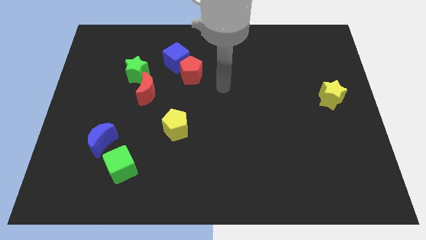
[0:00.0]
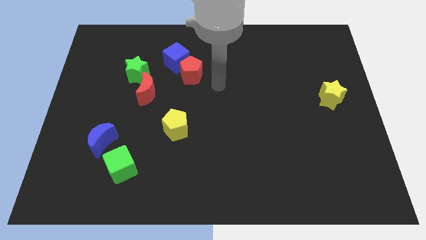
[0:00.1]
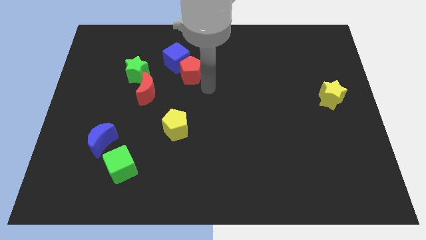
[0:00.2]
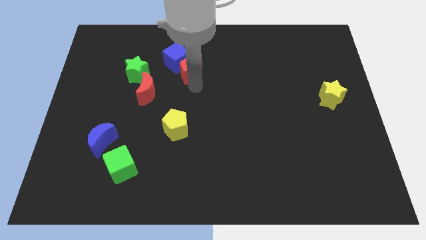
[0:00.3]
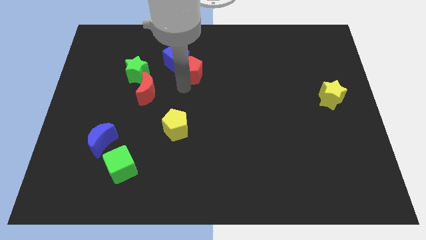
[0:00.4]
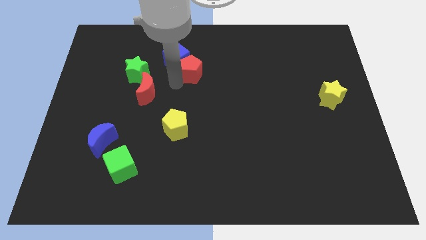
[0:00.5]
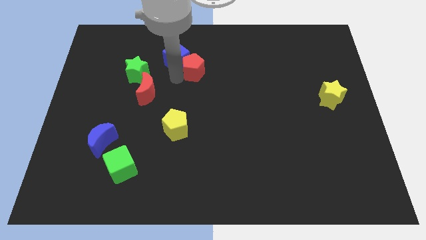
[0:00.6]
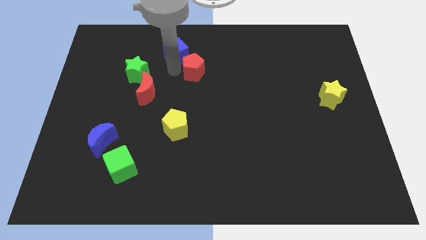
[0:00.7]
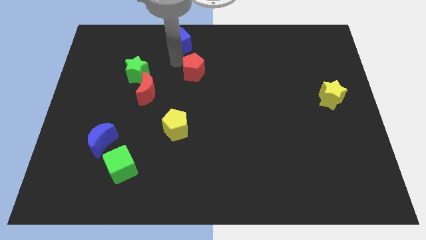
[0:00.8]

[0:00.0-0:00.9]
pull the red pentagon apart from the blue cube

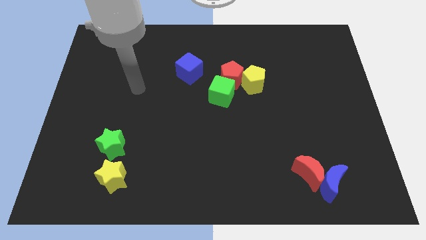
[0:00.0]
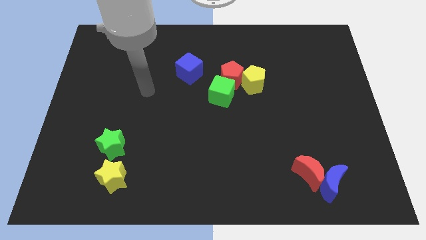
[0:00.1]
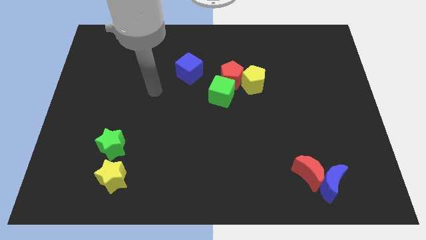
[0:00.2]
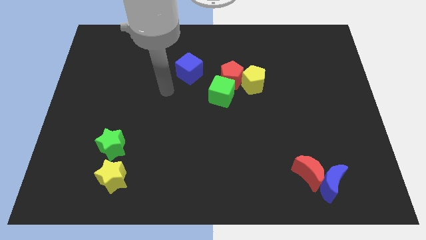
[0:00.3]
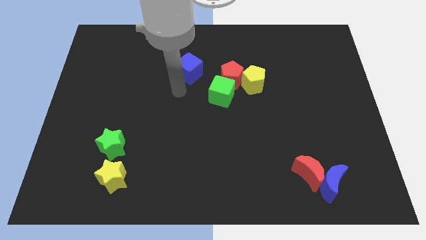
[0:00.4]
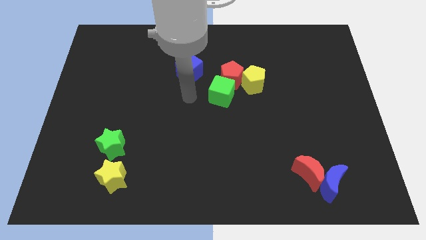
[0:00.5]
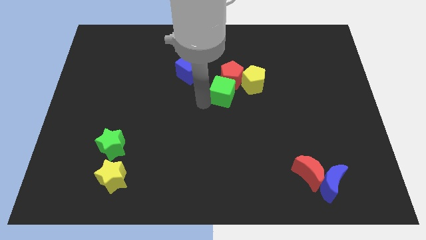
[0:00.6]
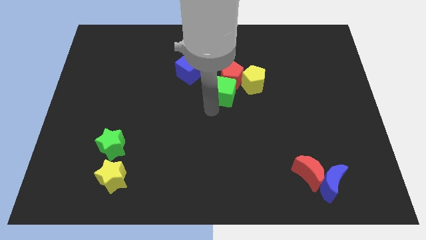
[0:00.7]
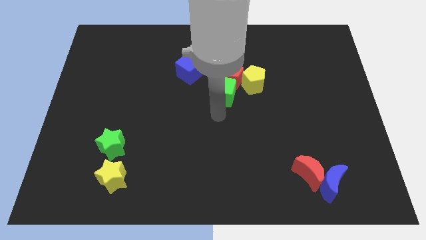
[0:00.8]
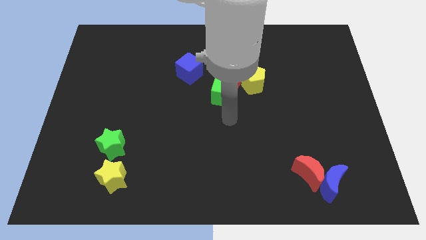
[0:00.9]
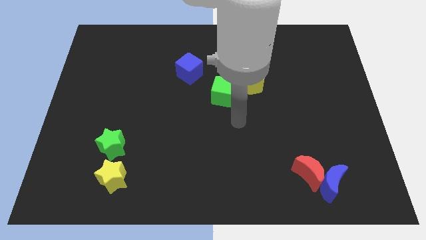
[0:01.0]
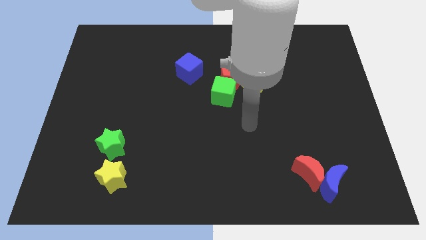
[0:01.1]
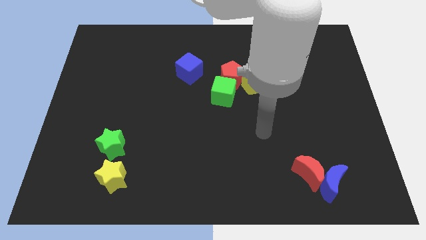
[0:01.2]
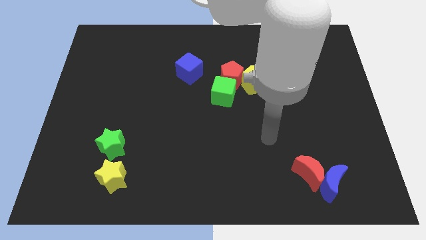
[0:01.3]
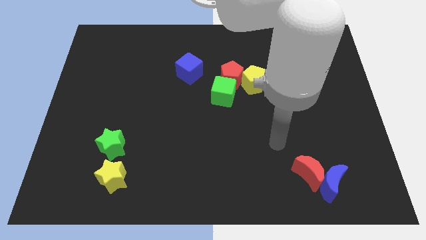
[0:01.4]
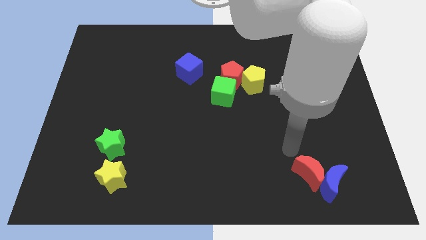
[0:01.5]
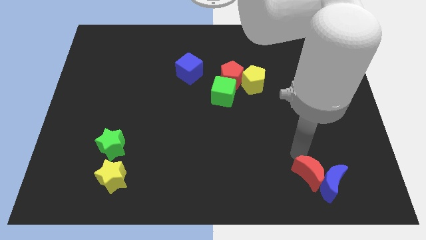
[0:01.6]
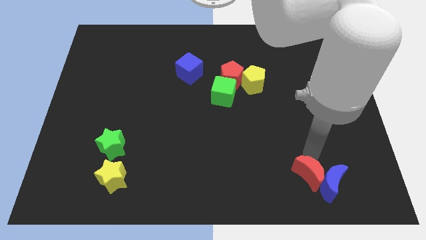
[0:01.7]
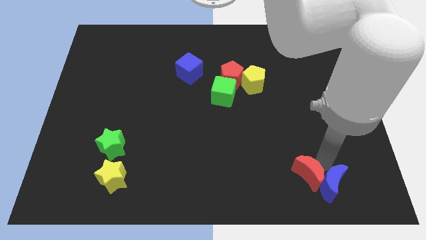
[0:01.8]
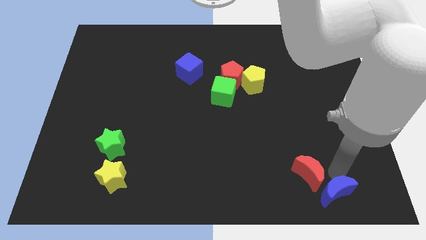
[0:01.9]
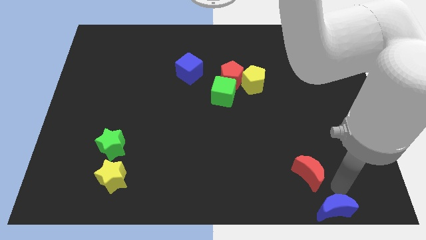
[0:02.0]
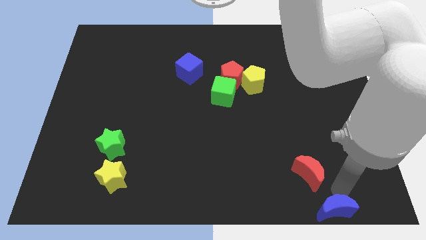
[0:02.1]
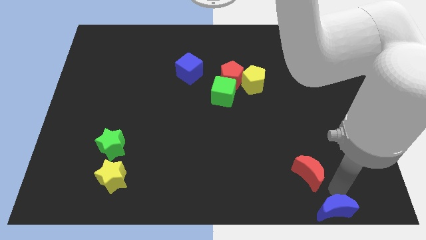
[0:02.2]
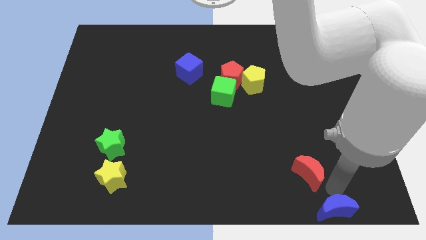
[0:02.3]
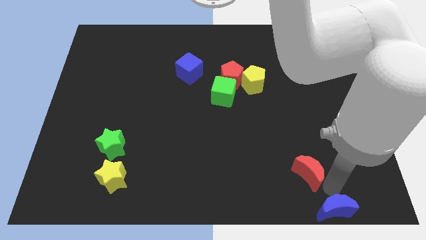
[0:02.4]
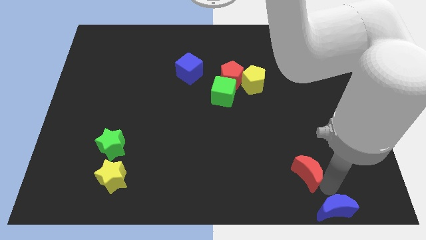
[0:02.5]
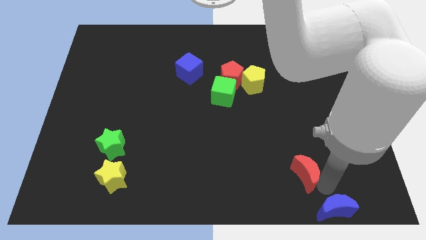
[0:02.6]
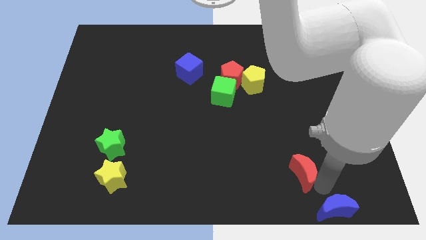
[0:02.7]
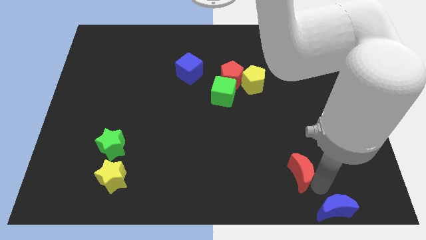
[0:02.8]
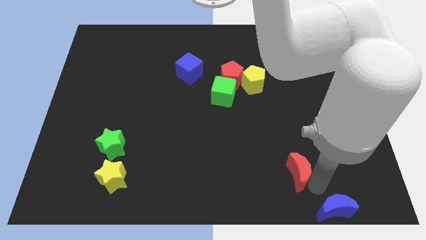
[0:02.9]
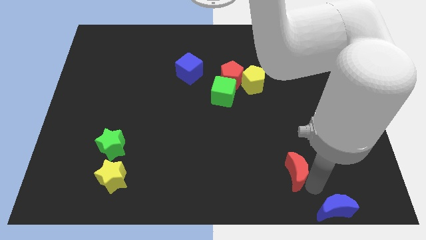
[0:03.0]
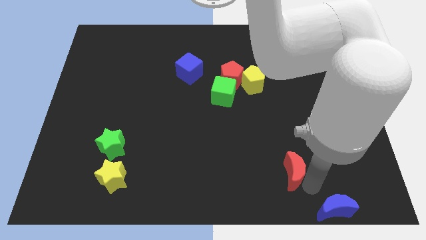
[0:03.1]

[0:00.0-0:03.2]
move the red moon away from the blue moon

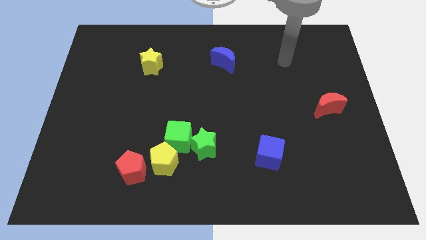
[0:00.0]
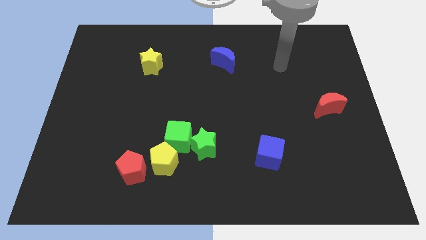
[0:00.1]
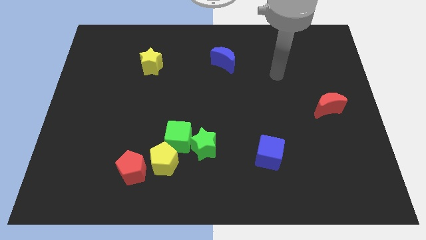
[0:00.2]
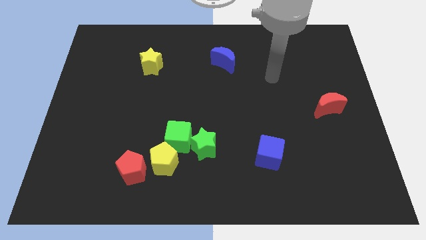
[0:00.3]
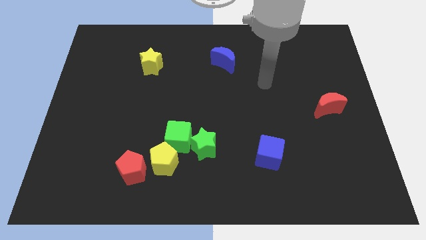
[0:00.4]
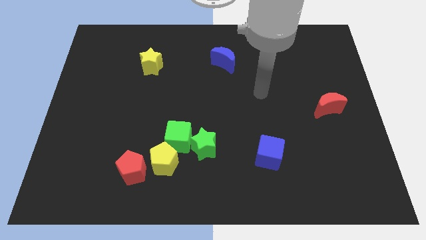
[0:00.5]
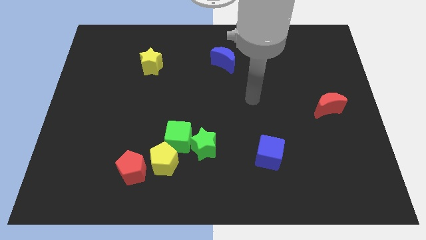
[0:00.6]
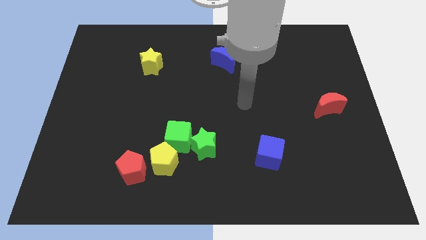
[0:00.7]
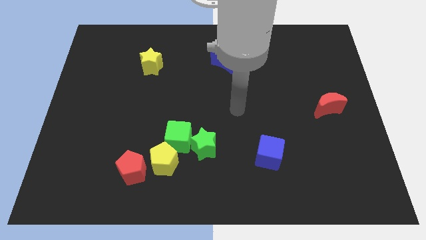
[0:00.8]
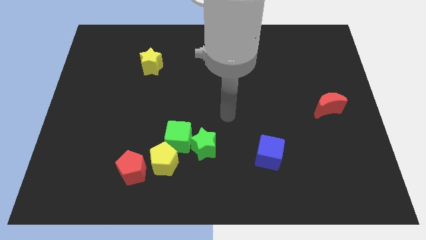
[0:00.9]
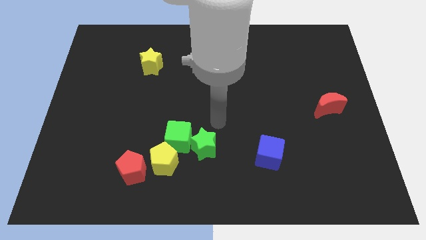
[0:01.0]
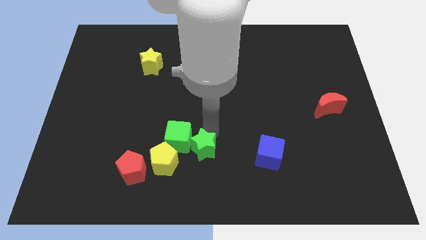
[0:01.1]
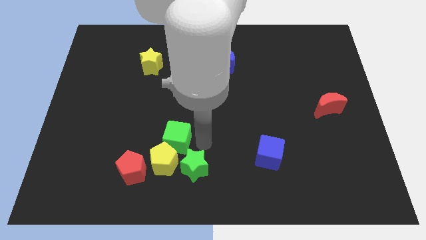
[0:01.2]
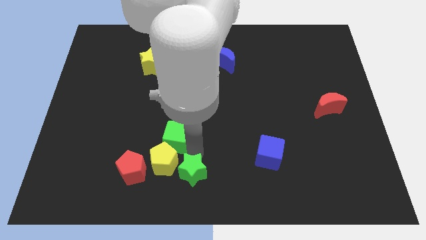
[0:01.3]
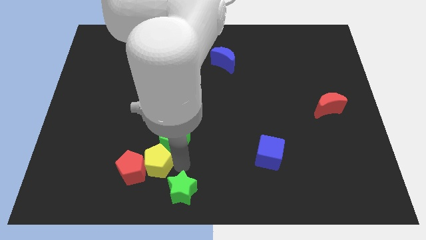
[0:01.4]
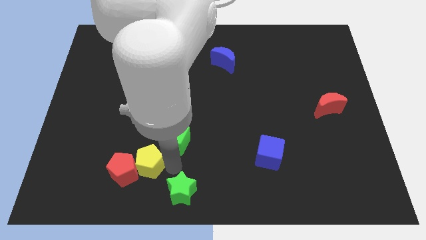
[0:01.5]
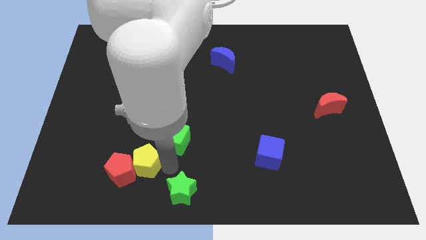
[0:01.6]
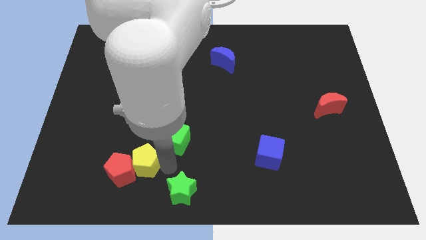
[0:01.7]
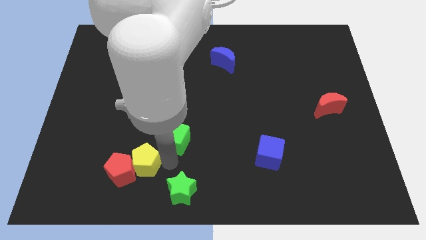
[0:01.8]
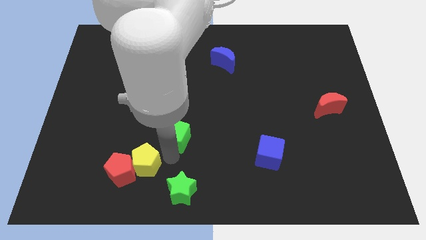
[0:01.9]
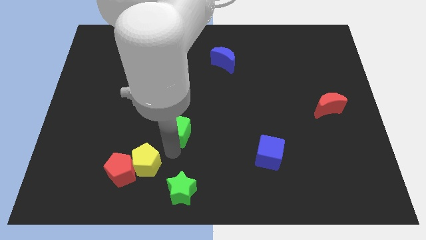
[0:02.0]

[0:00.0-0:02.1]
pull the green cube apart from the green star and yellow pentagon

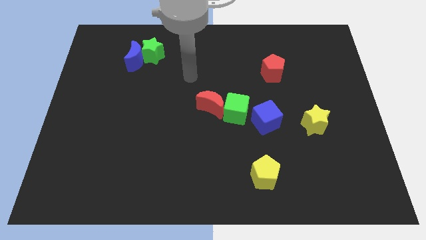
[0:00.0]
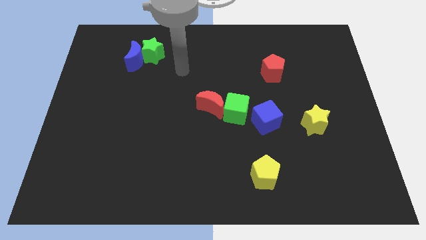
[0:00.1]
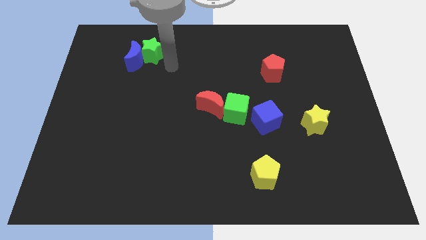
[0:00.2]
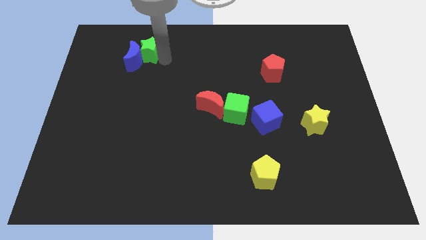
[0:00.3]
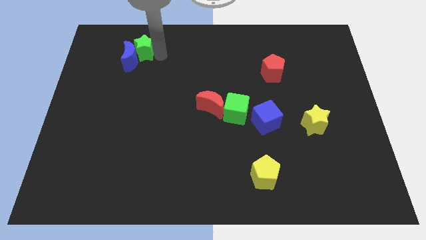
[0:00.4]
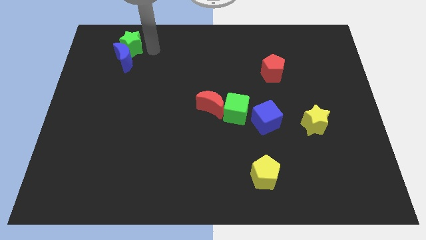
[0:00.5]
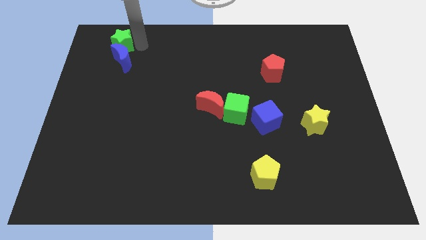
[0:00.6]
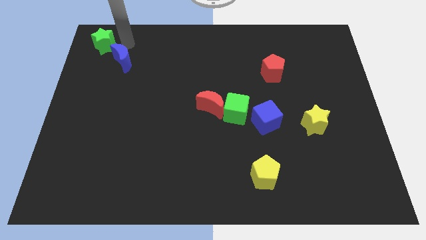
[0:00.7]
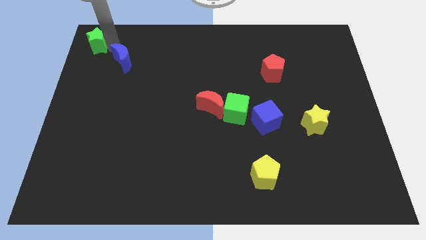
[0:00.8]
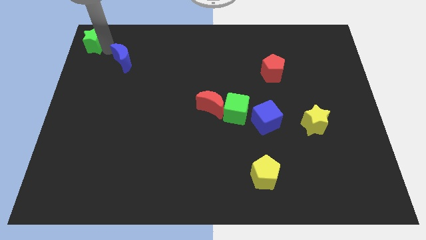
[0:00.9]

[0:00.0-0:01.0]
move the blue moon away from the green star

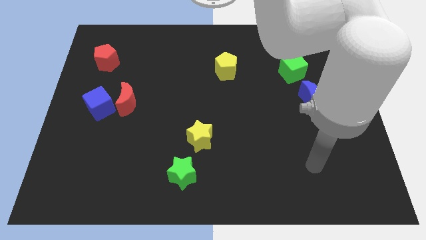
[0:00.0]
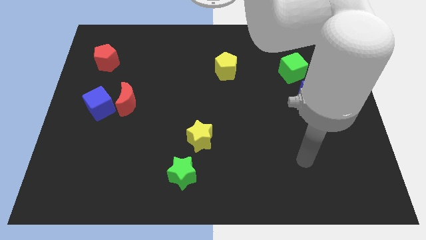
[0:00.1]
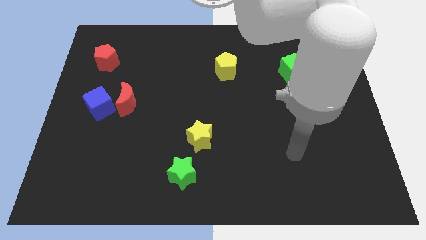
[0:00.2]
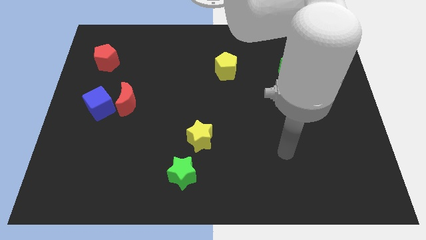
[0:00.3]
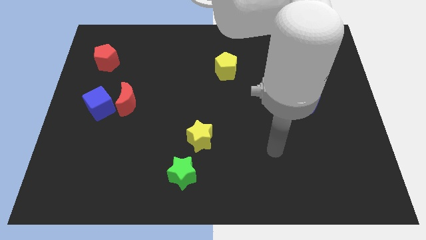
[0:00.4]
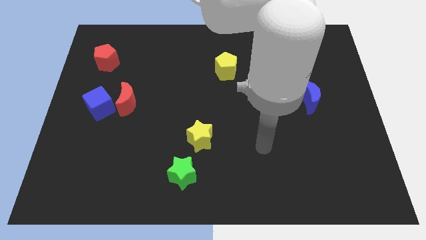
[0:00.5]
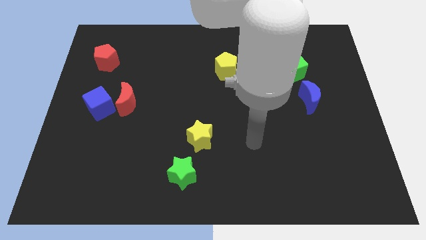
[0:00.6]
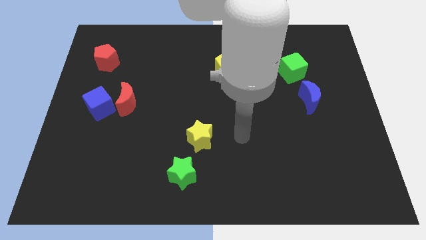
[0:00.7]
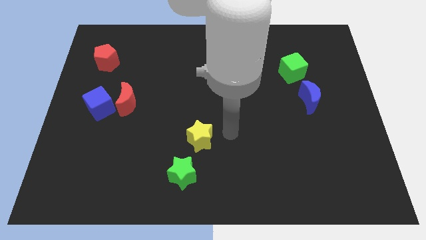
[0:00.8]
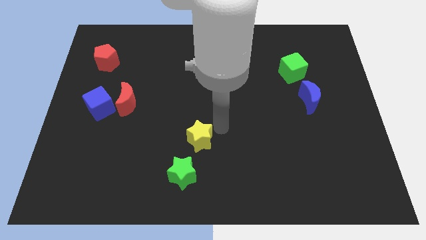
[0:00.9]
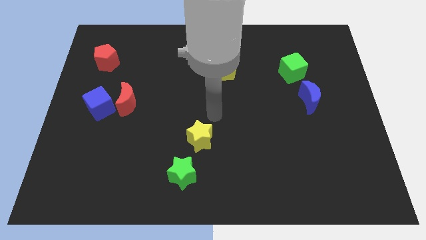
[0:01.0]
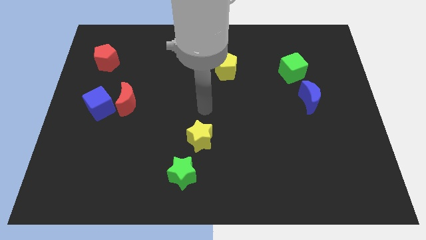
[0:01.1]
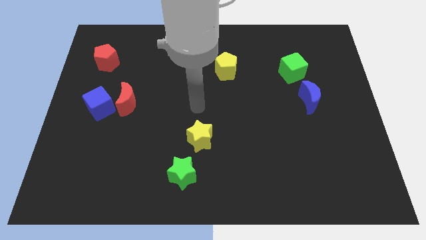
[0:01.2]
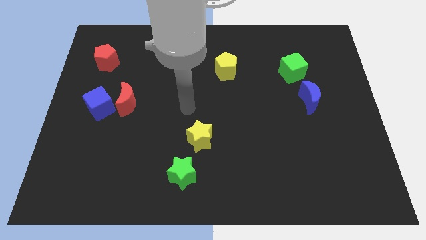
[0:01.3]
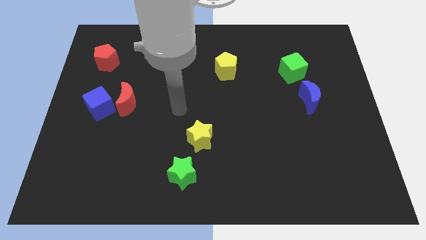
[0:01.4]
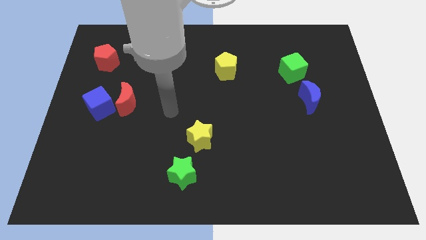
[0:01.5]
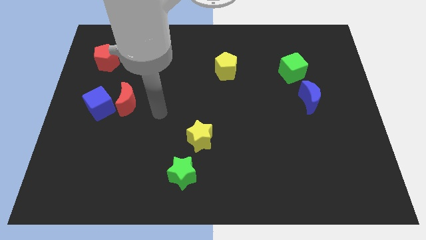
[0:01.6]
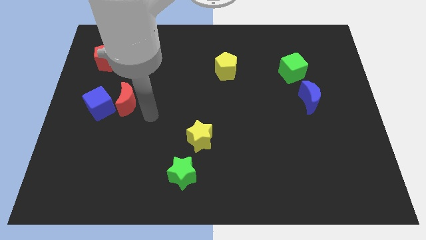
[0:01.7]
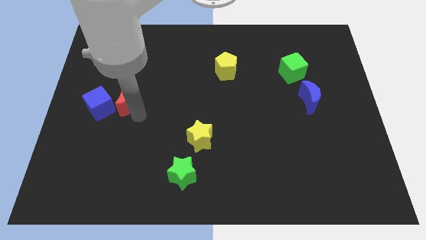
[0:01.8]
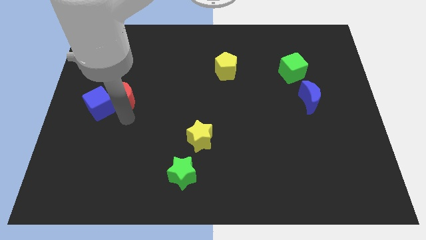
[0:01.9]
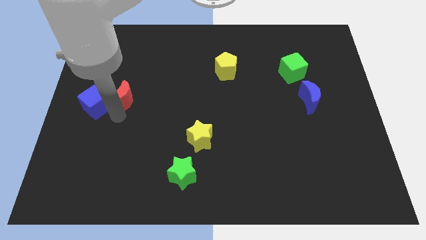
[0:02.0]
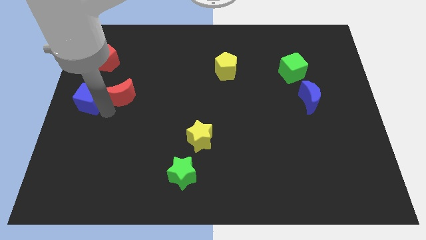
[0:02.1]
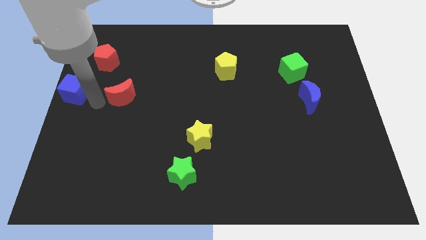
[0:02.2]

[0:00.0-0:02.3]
separate the red moon from the blue cube

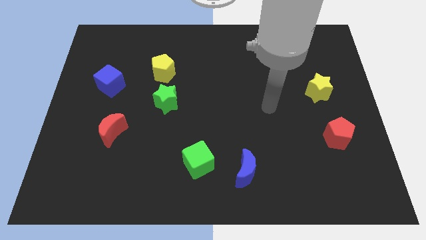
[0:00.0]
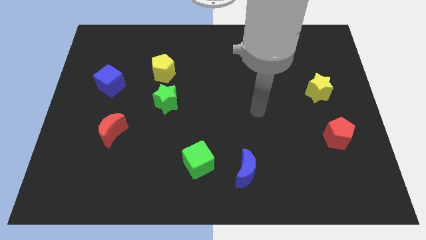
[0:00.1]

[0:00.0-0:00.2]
separate the blue moon from the green cube
